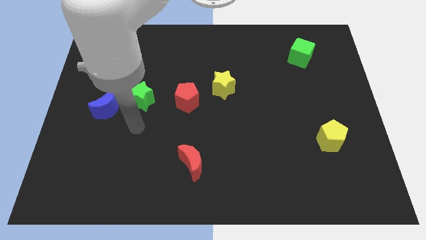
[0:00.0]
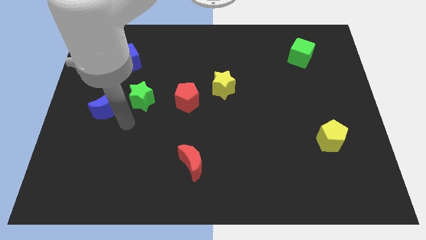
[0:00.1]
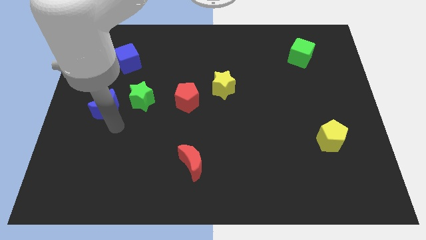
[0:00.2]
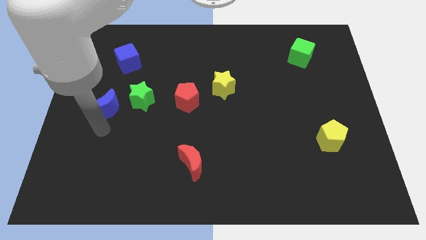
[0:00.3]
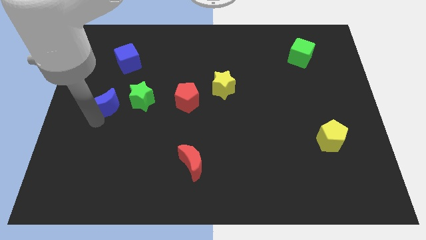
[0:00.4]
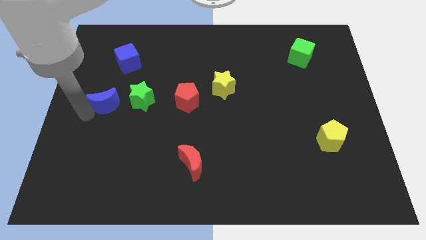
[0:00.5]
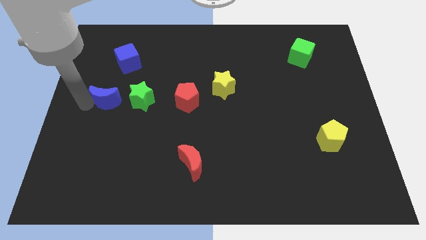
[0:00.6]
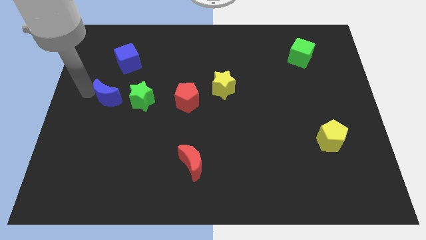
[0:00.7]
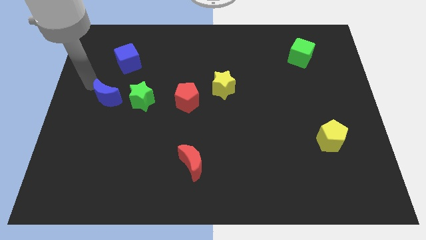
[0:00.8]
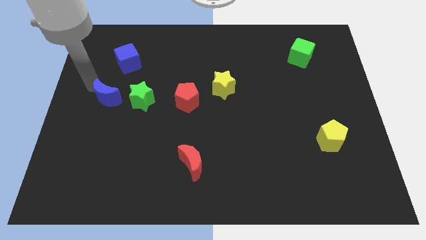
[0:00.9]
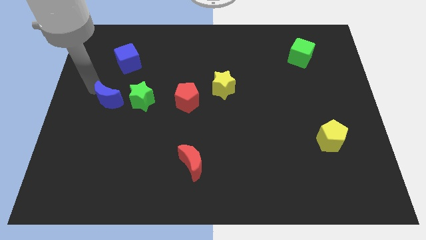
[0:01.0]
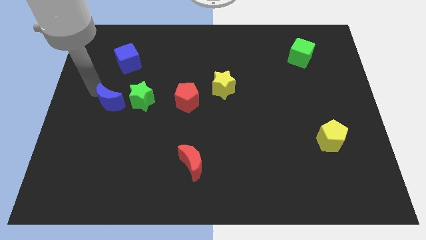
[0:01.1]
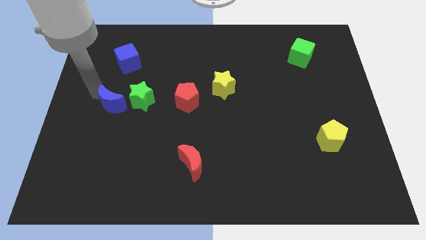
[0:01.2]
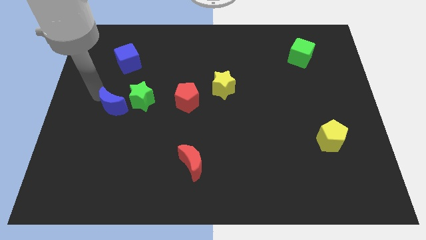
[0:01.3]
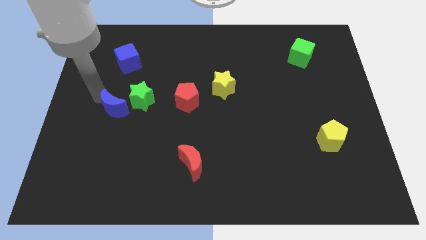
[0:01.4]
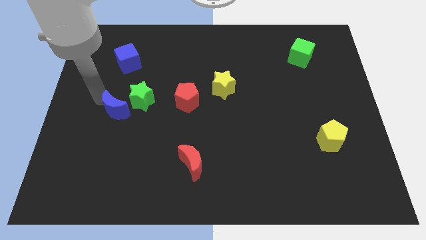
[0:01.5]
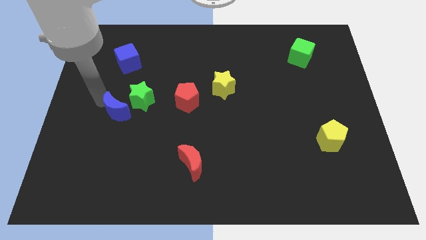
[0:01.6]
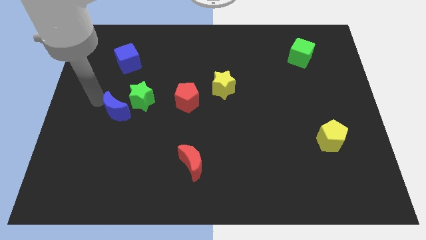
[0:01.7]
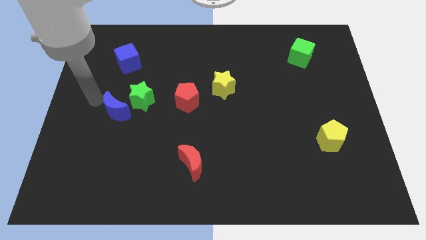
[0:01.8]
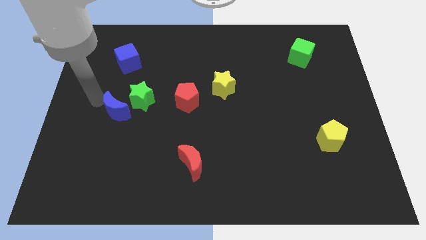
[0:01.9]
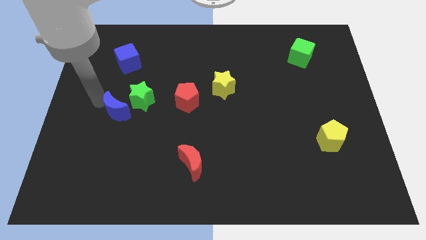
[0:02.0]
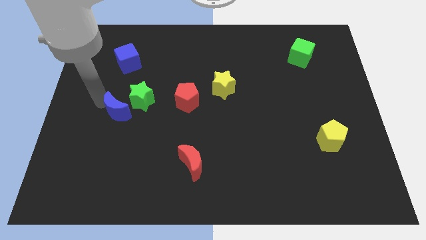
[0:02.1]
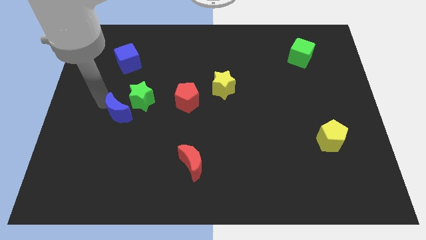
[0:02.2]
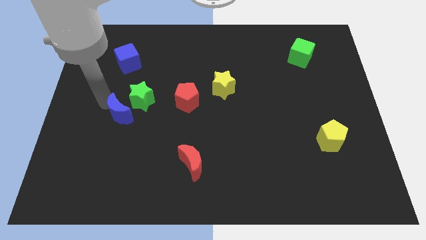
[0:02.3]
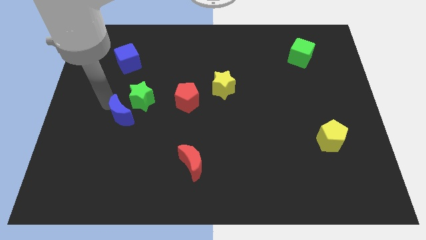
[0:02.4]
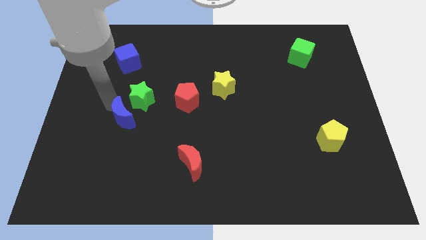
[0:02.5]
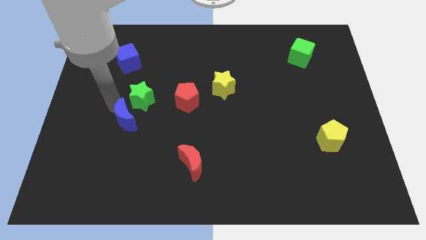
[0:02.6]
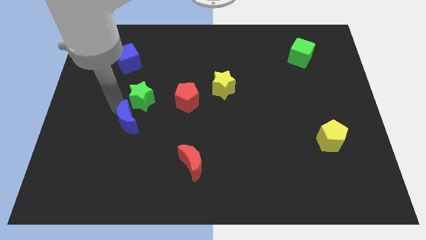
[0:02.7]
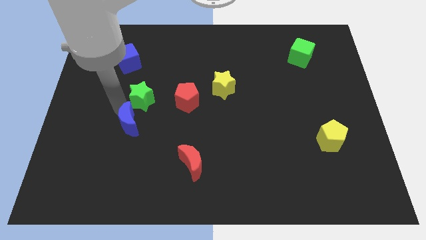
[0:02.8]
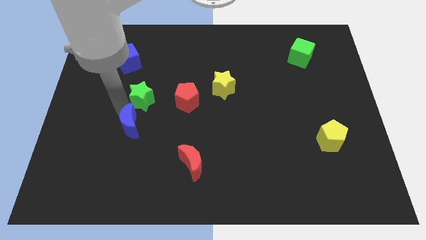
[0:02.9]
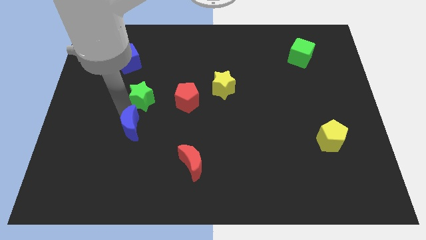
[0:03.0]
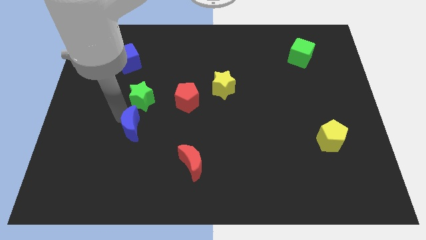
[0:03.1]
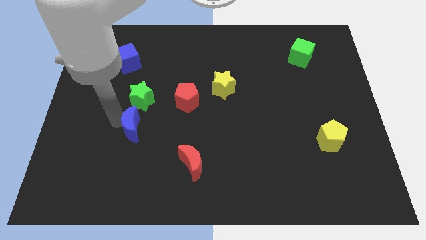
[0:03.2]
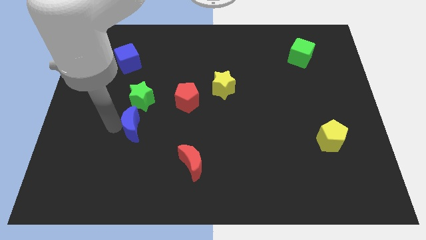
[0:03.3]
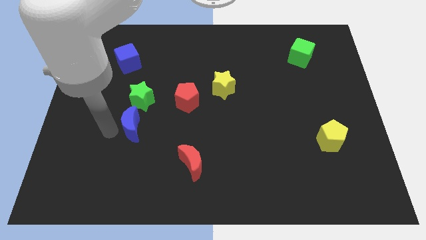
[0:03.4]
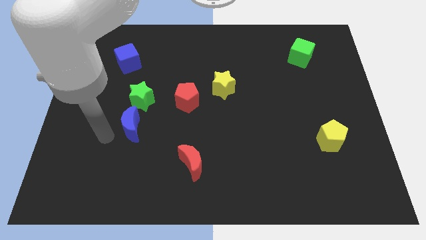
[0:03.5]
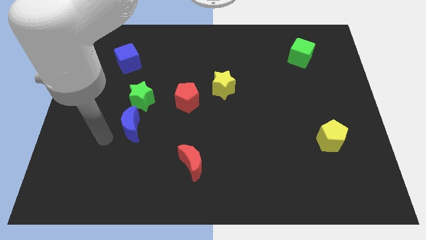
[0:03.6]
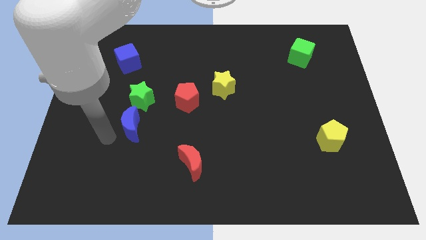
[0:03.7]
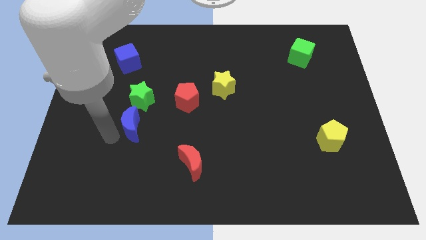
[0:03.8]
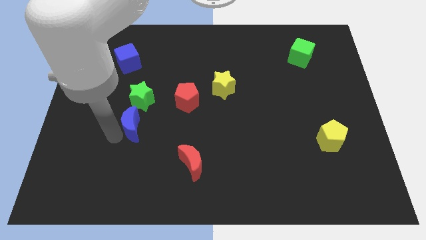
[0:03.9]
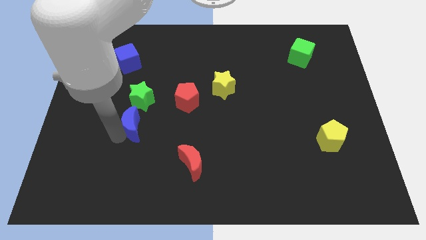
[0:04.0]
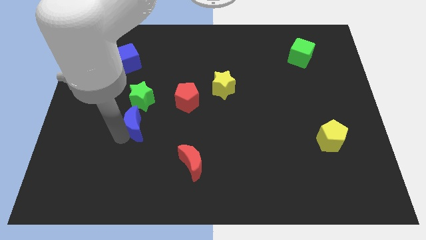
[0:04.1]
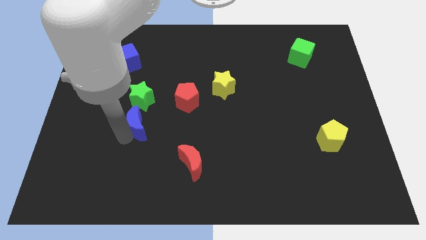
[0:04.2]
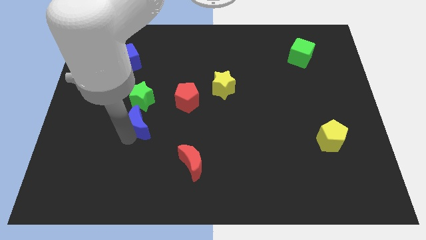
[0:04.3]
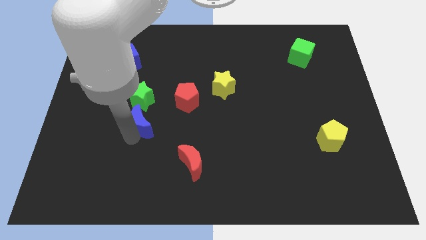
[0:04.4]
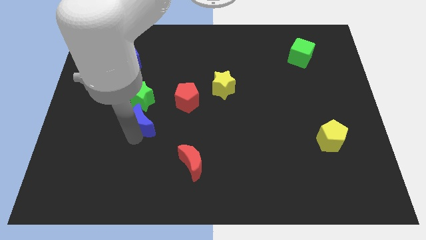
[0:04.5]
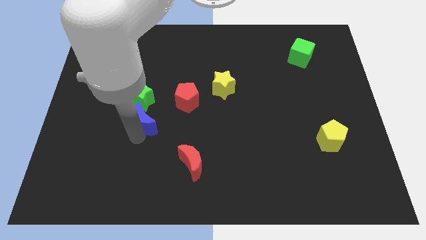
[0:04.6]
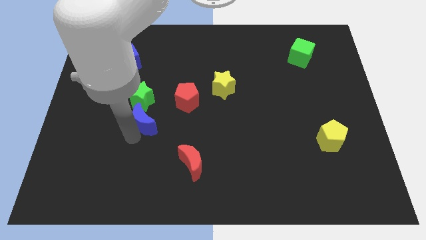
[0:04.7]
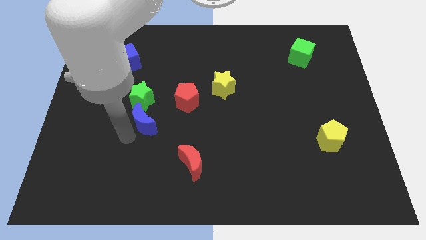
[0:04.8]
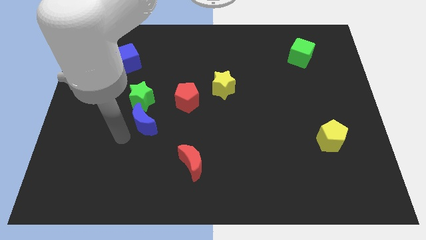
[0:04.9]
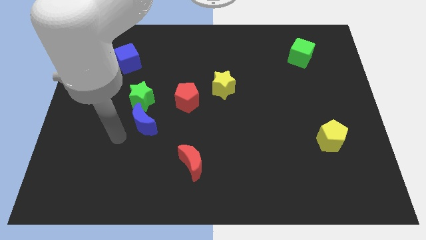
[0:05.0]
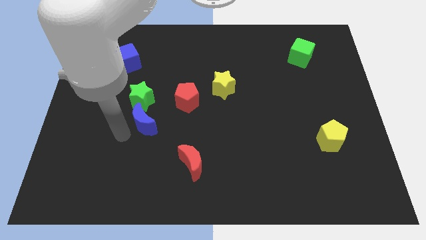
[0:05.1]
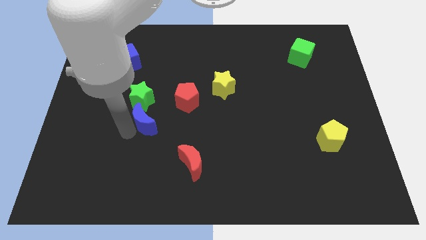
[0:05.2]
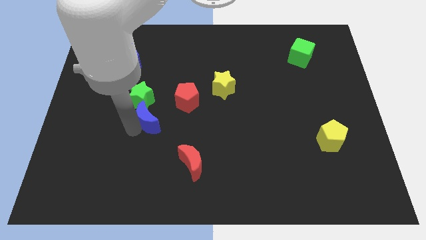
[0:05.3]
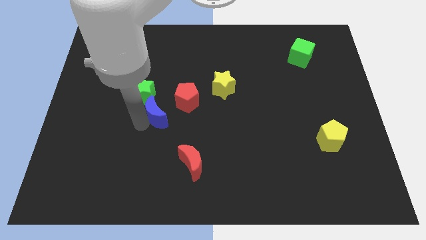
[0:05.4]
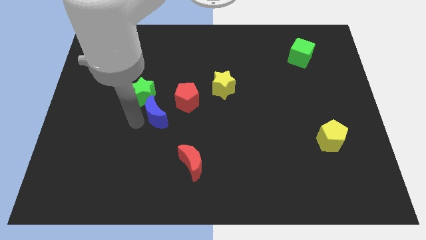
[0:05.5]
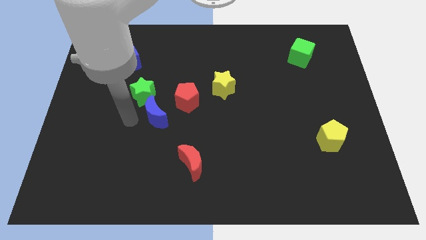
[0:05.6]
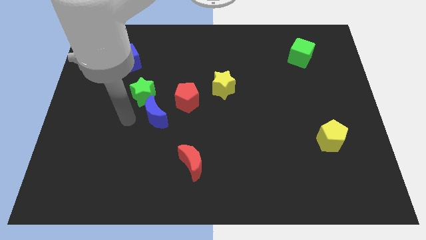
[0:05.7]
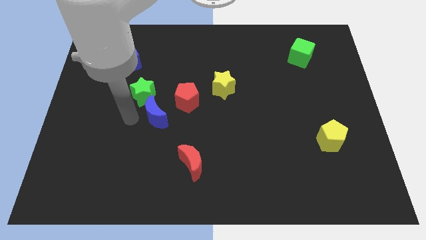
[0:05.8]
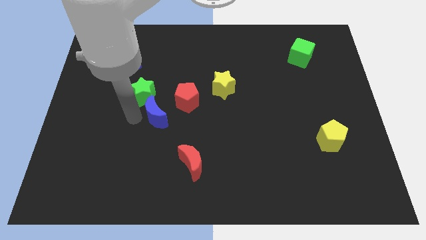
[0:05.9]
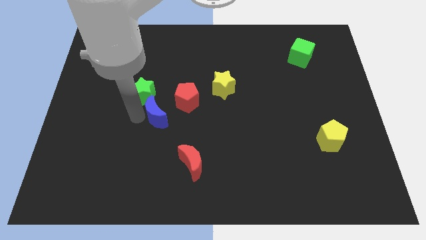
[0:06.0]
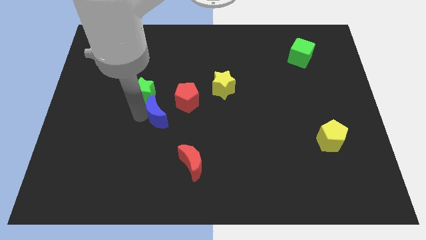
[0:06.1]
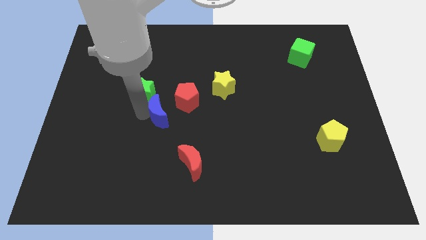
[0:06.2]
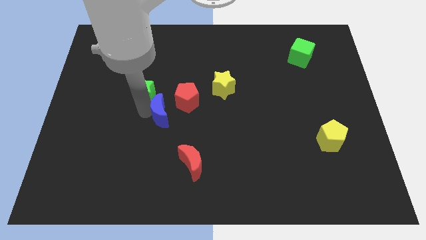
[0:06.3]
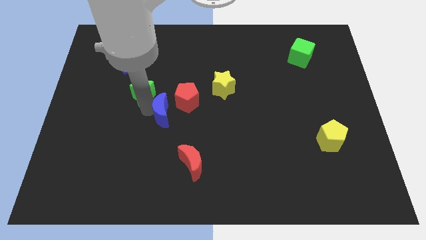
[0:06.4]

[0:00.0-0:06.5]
move the blue moon to the center
